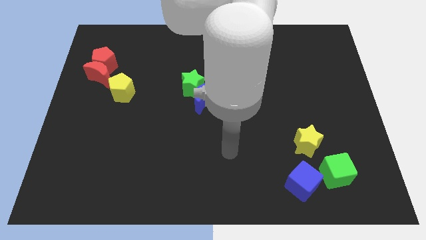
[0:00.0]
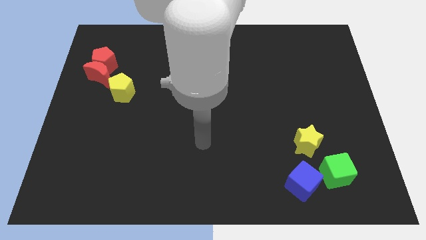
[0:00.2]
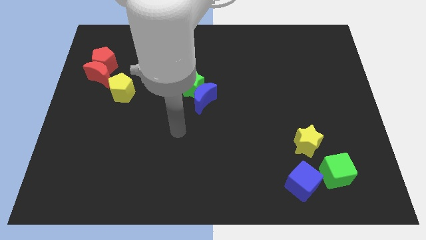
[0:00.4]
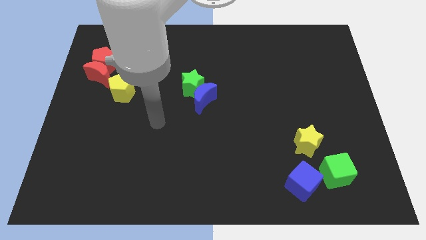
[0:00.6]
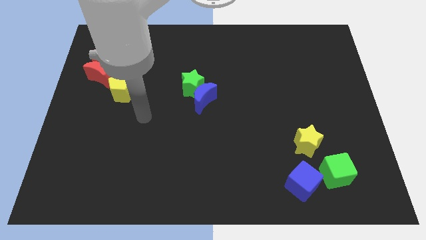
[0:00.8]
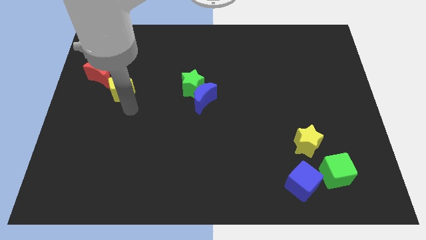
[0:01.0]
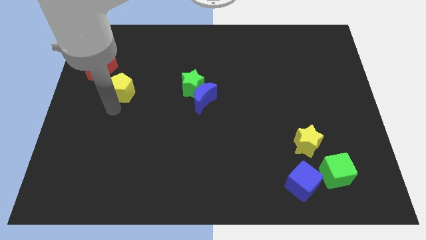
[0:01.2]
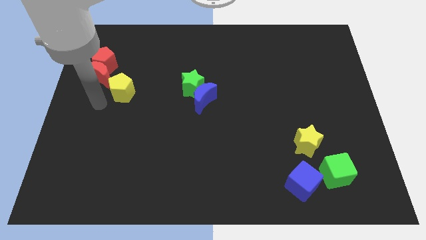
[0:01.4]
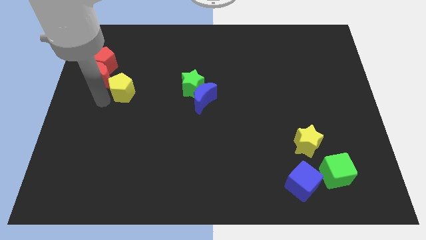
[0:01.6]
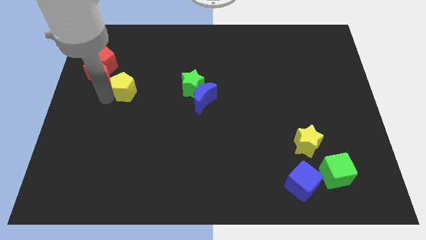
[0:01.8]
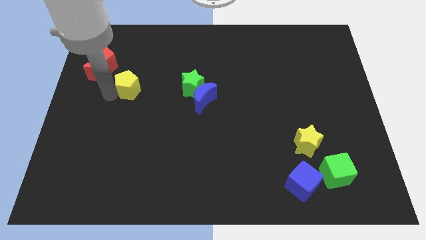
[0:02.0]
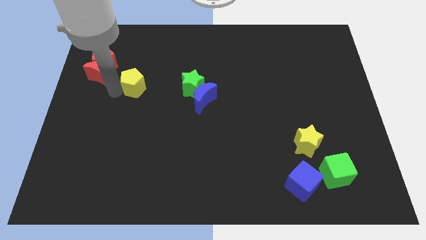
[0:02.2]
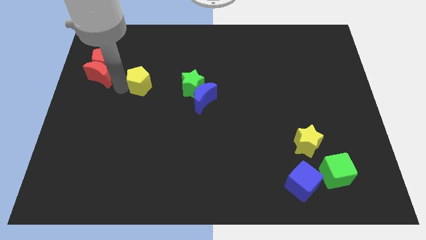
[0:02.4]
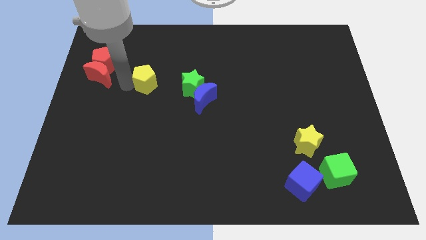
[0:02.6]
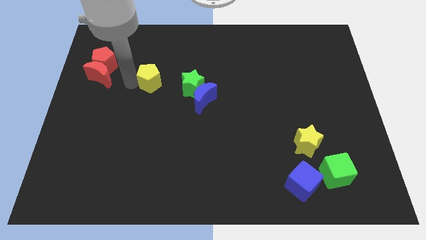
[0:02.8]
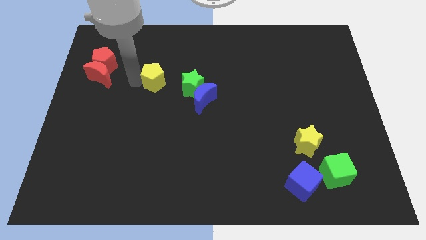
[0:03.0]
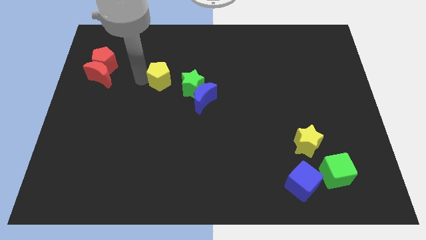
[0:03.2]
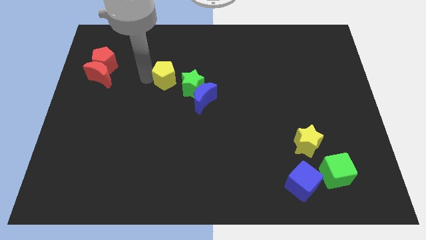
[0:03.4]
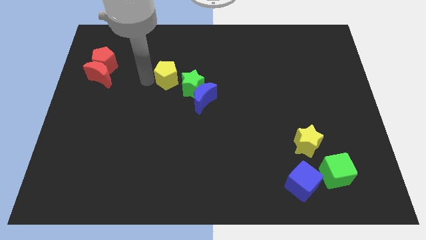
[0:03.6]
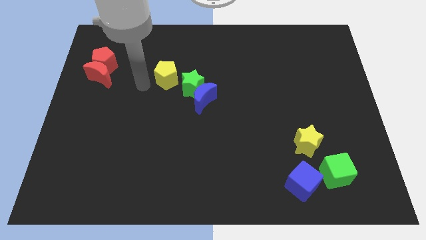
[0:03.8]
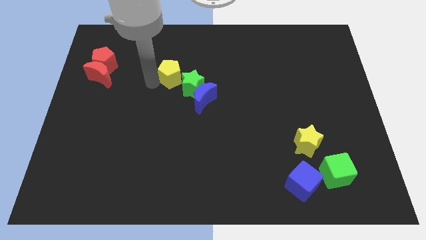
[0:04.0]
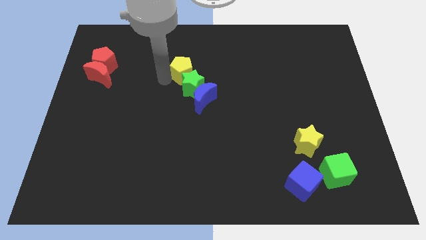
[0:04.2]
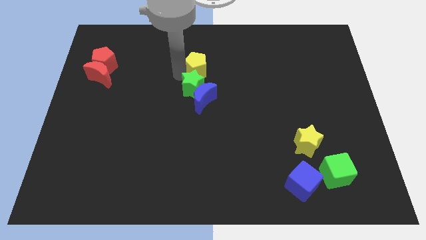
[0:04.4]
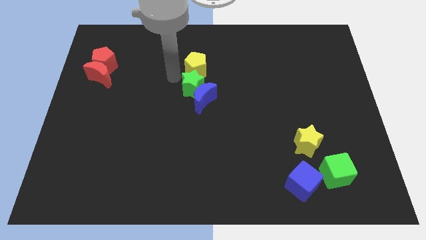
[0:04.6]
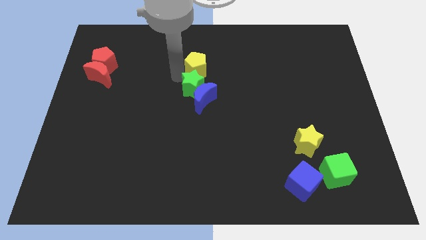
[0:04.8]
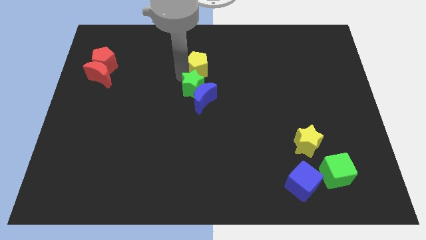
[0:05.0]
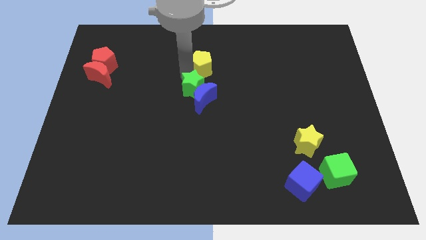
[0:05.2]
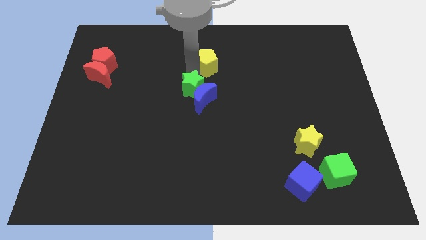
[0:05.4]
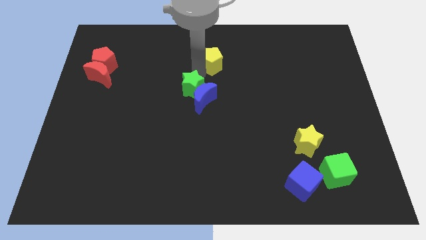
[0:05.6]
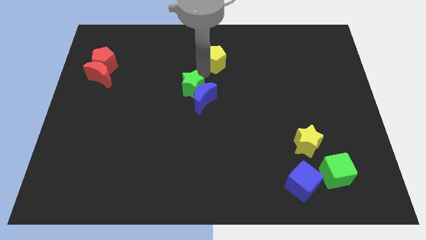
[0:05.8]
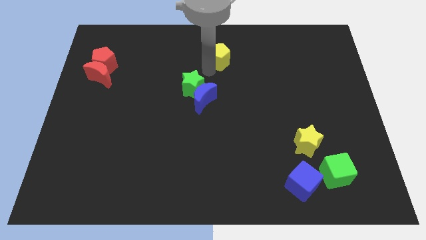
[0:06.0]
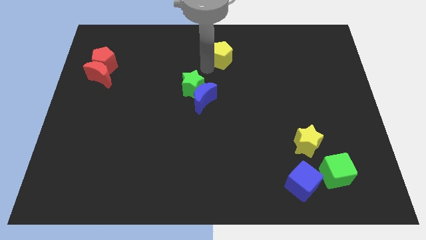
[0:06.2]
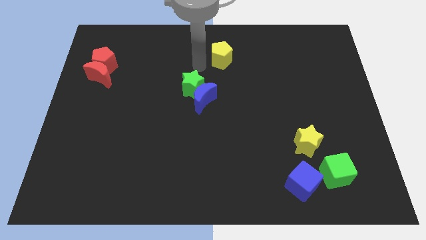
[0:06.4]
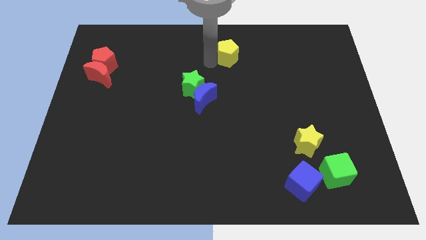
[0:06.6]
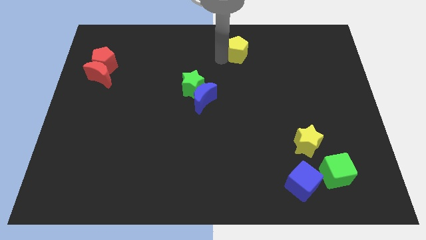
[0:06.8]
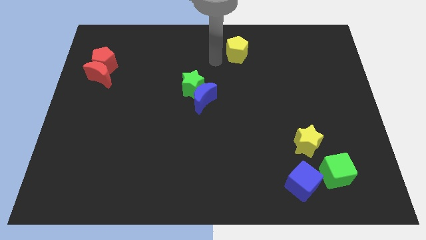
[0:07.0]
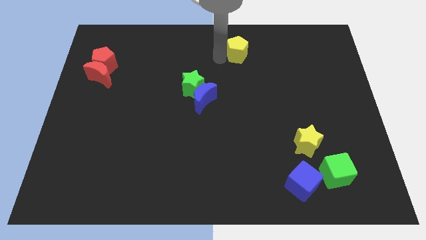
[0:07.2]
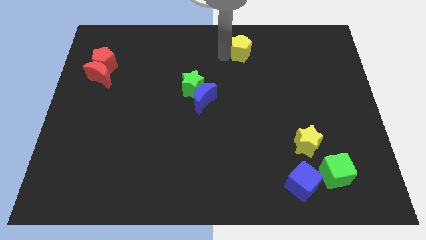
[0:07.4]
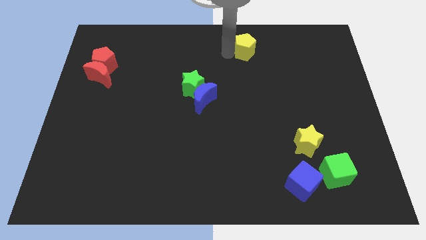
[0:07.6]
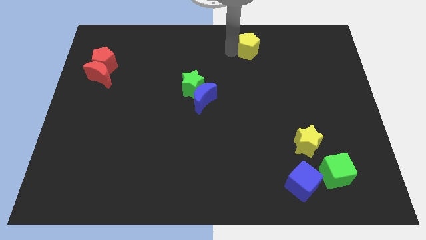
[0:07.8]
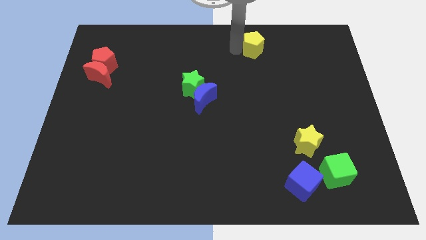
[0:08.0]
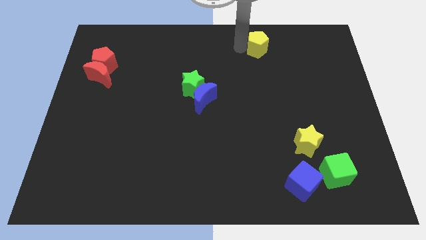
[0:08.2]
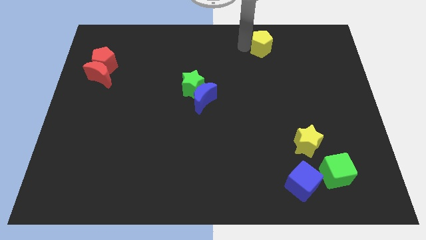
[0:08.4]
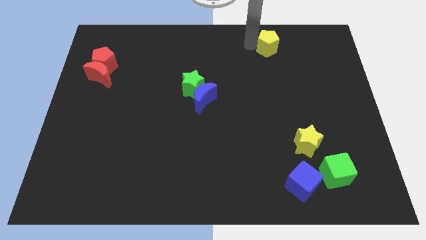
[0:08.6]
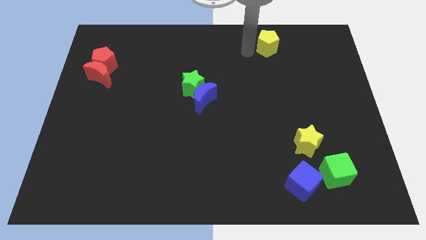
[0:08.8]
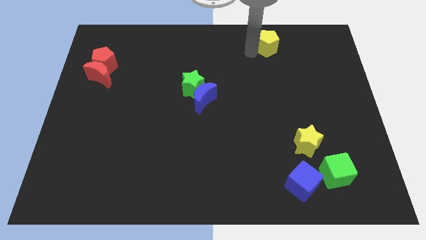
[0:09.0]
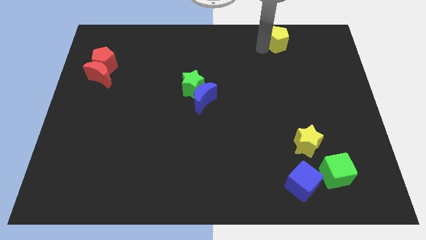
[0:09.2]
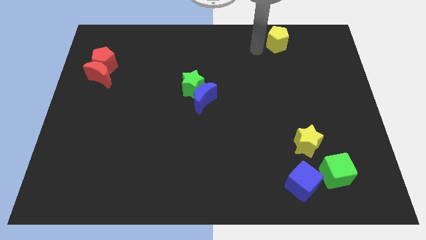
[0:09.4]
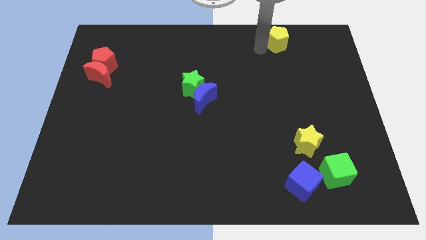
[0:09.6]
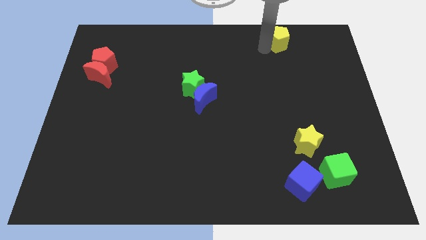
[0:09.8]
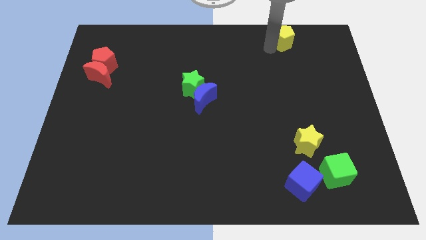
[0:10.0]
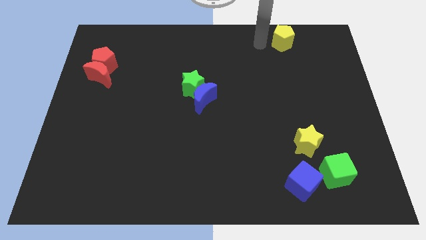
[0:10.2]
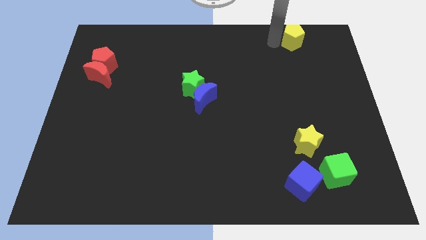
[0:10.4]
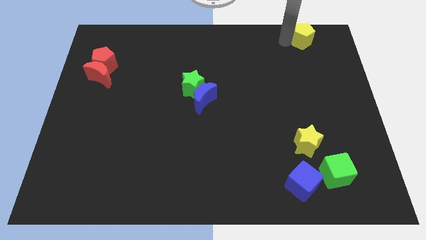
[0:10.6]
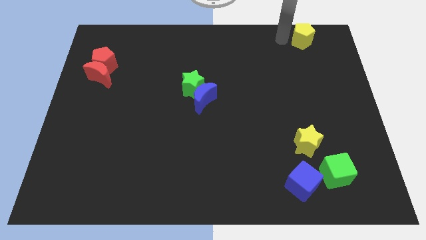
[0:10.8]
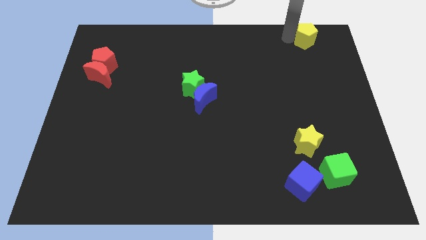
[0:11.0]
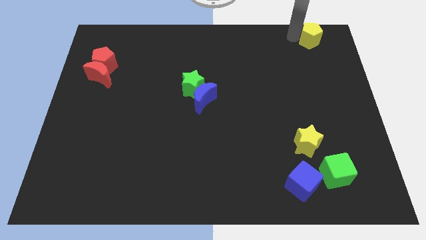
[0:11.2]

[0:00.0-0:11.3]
slide the yellow pentagon to the upper right corner
